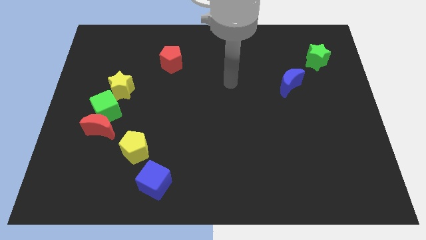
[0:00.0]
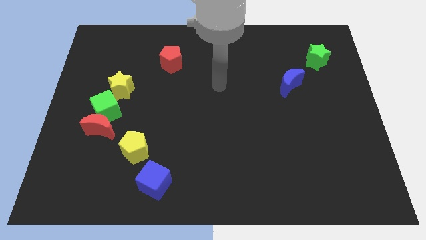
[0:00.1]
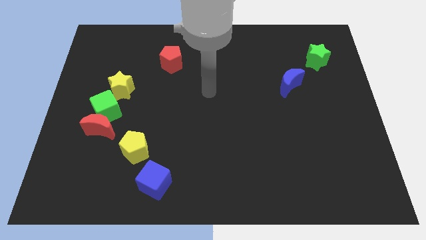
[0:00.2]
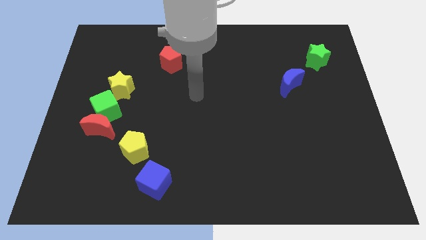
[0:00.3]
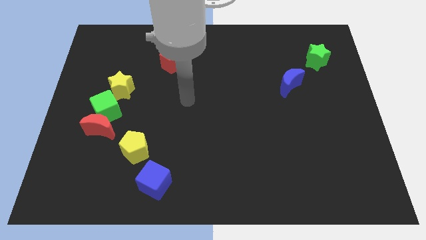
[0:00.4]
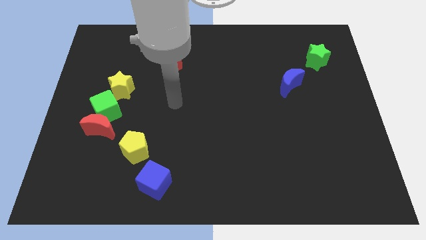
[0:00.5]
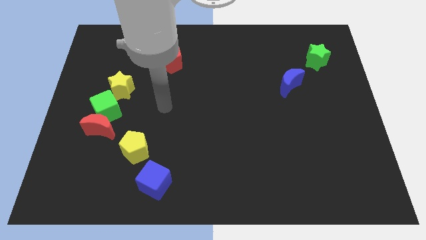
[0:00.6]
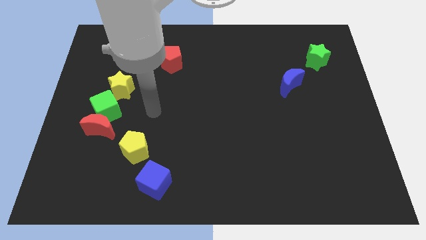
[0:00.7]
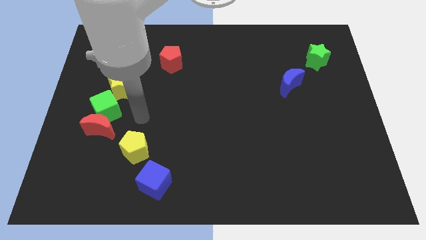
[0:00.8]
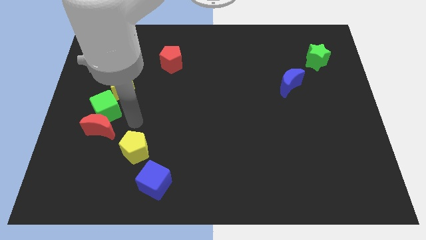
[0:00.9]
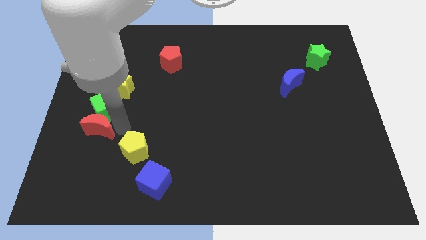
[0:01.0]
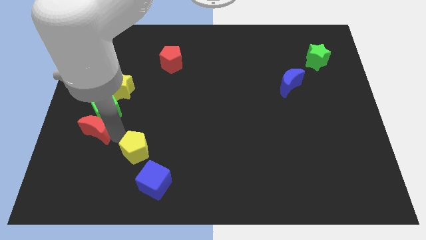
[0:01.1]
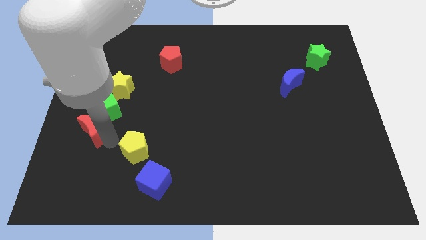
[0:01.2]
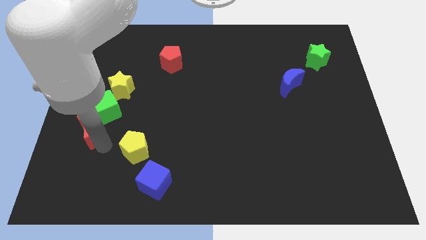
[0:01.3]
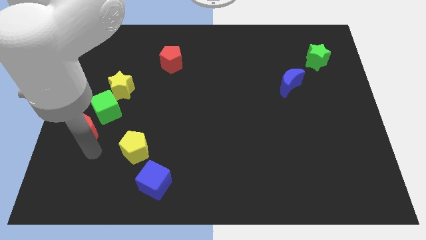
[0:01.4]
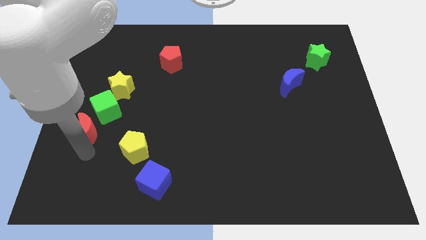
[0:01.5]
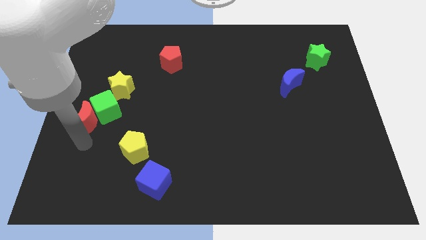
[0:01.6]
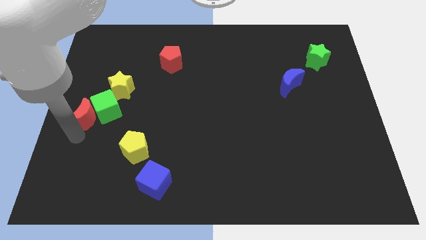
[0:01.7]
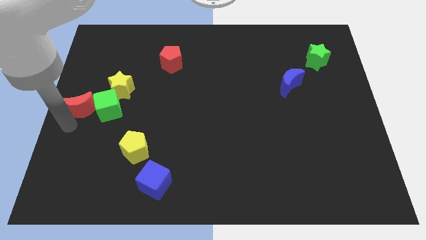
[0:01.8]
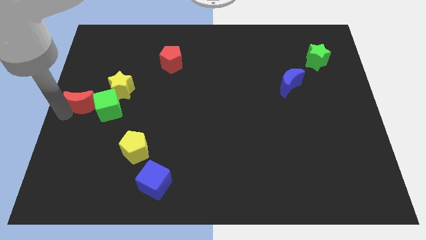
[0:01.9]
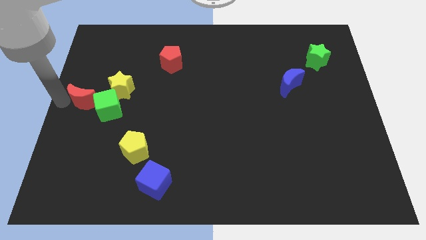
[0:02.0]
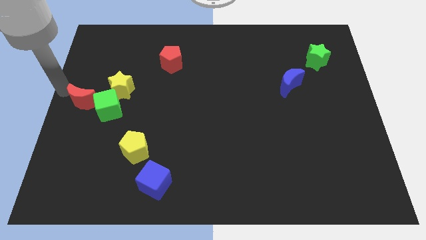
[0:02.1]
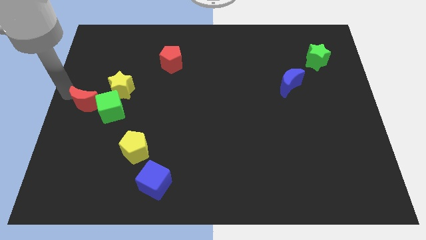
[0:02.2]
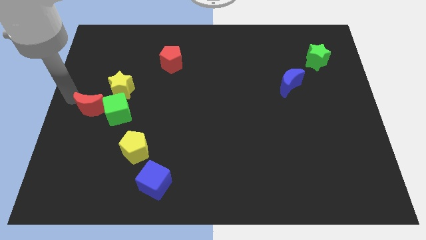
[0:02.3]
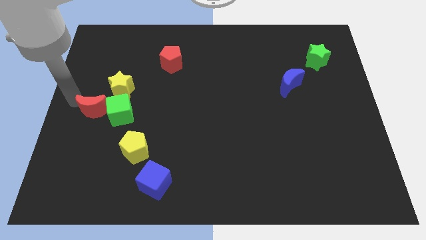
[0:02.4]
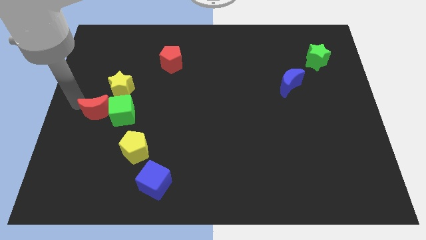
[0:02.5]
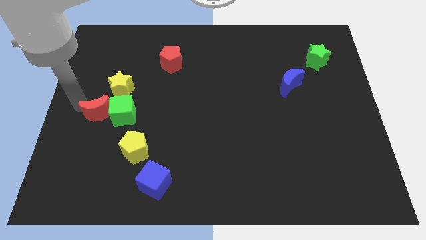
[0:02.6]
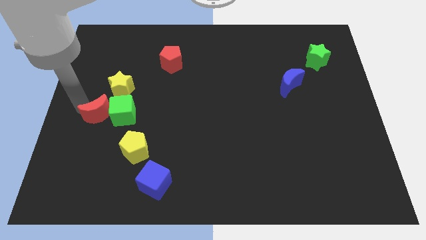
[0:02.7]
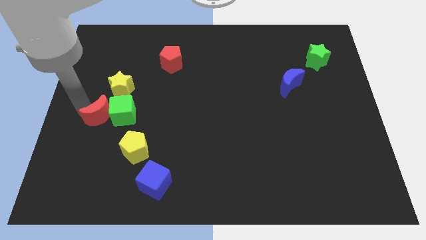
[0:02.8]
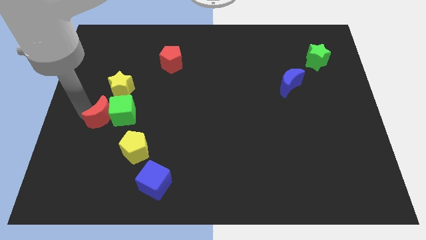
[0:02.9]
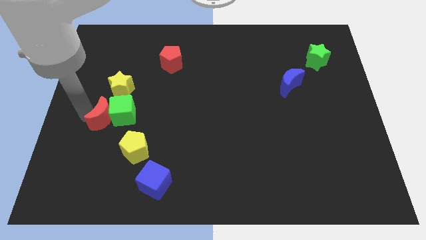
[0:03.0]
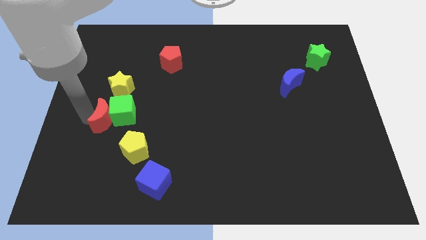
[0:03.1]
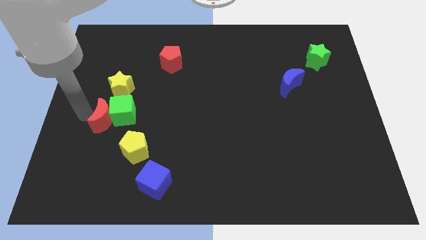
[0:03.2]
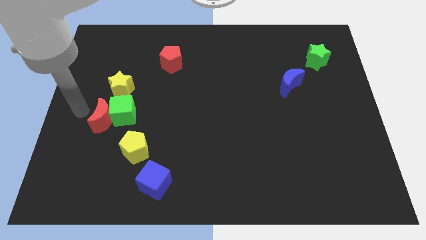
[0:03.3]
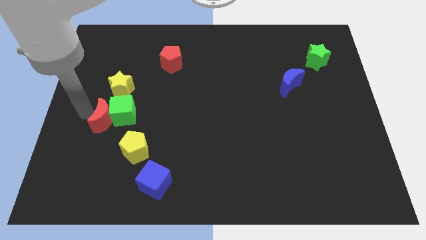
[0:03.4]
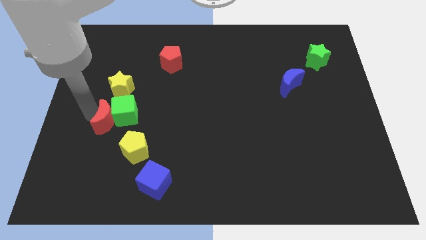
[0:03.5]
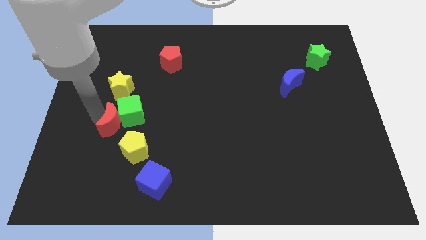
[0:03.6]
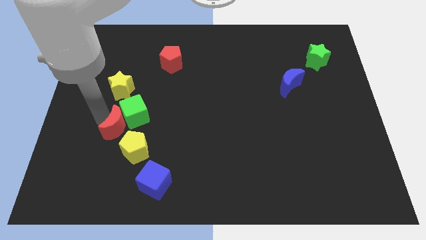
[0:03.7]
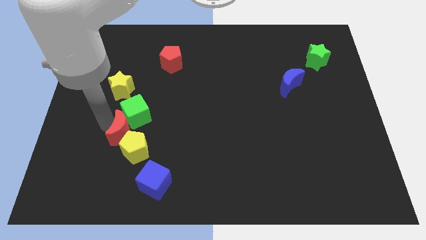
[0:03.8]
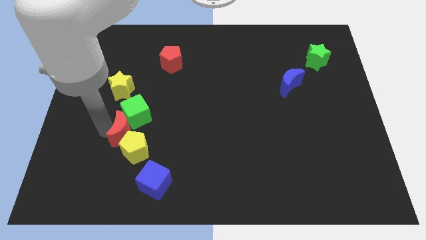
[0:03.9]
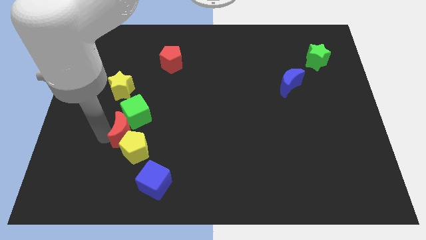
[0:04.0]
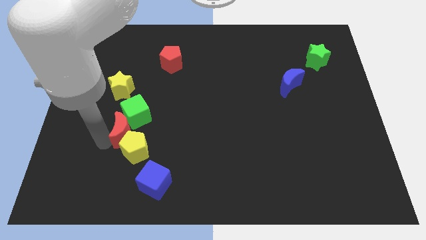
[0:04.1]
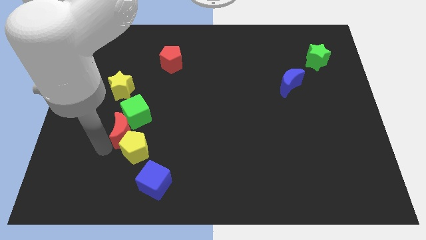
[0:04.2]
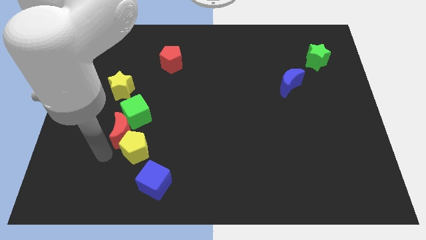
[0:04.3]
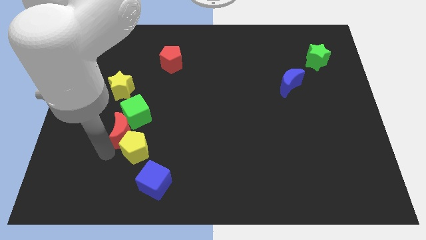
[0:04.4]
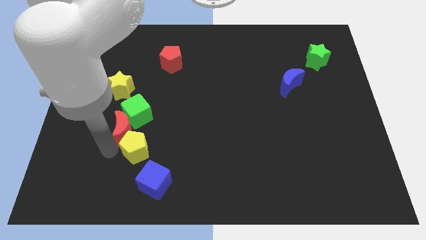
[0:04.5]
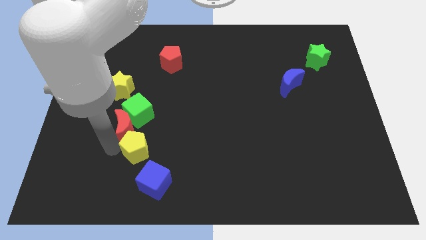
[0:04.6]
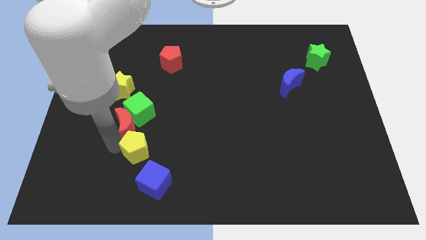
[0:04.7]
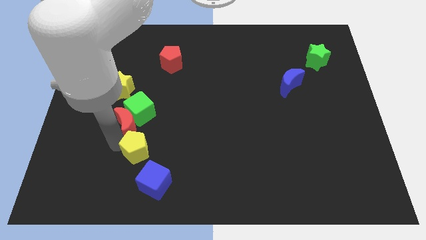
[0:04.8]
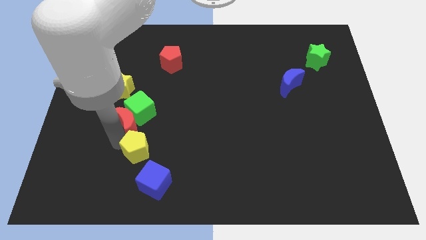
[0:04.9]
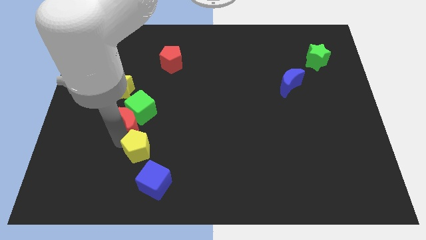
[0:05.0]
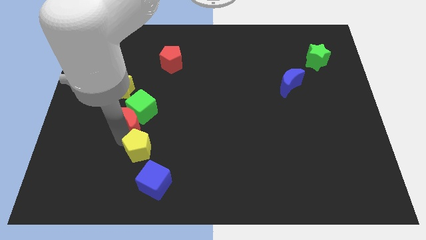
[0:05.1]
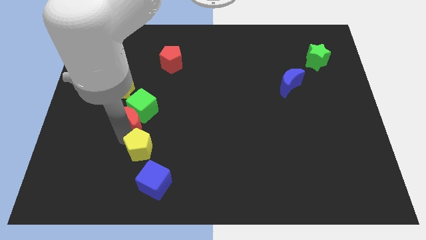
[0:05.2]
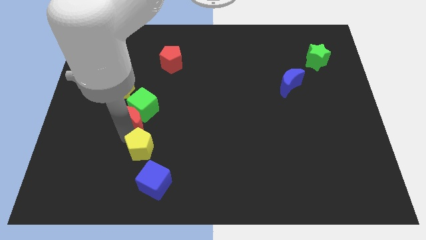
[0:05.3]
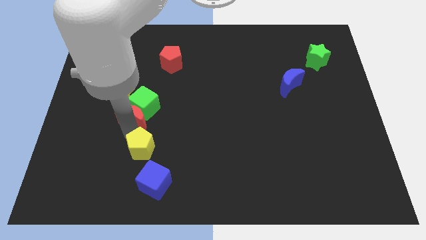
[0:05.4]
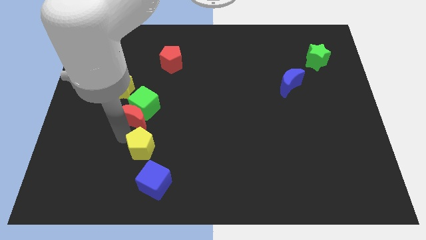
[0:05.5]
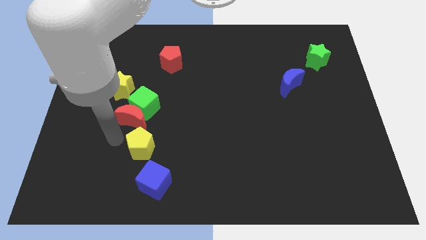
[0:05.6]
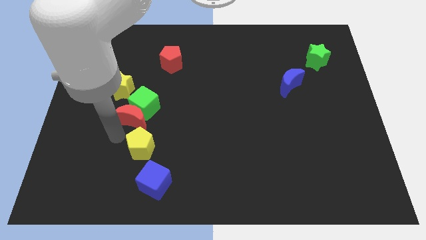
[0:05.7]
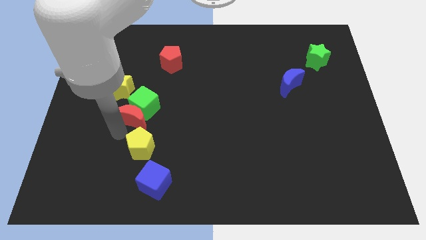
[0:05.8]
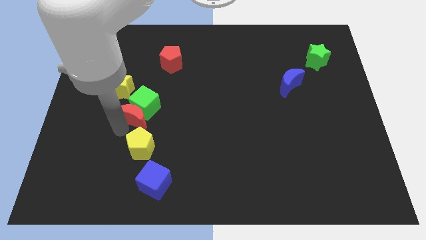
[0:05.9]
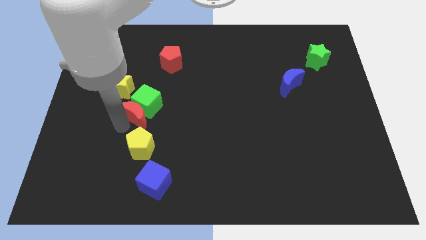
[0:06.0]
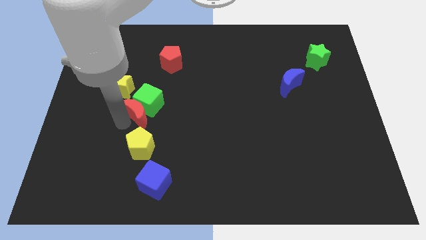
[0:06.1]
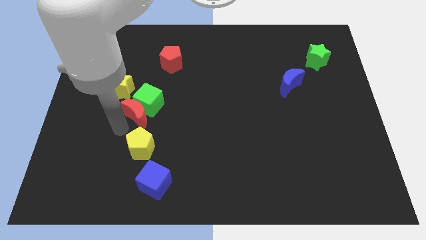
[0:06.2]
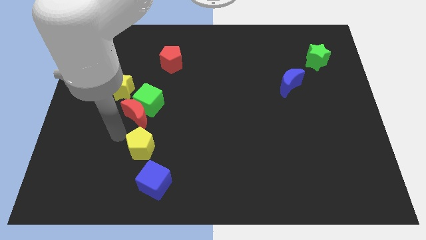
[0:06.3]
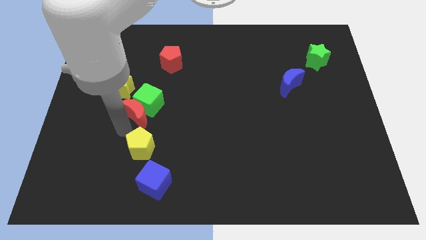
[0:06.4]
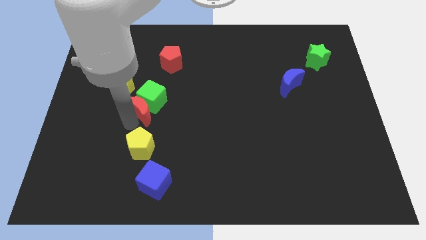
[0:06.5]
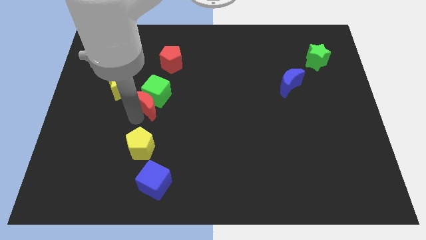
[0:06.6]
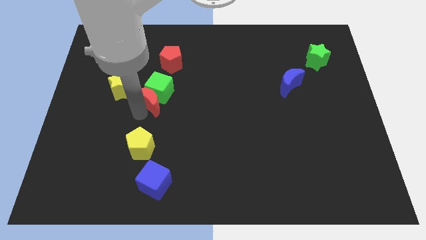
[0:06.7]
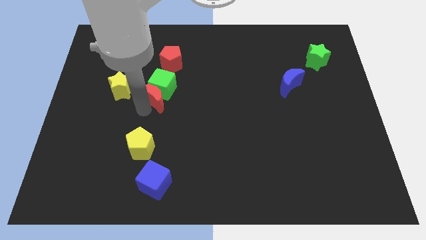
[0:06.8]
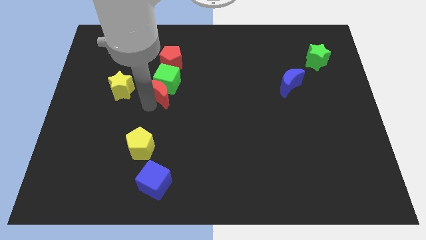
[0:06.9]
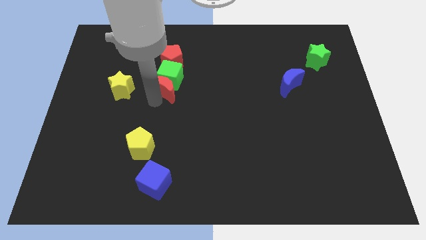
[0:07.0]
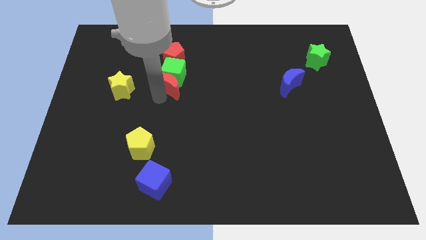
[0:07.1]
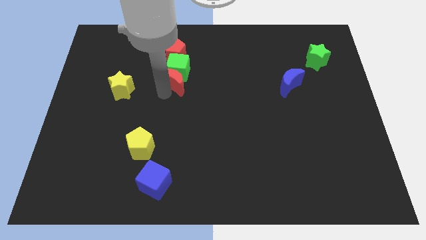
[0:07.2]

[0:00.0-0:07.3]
push the red moon up and to the right

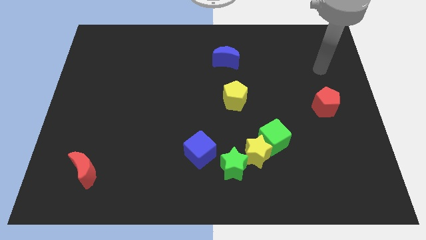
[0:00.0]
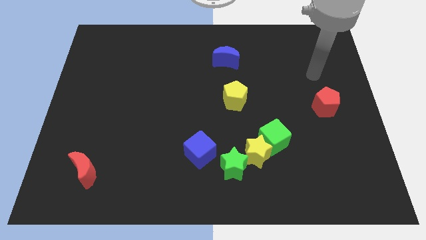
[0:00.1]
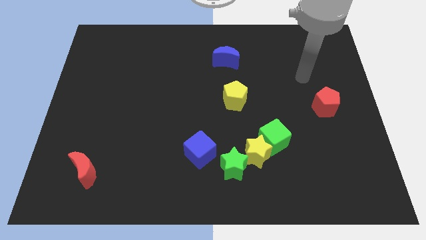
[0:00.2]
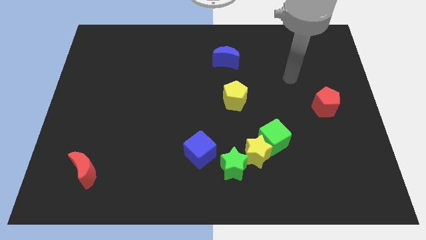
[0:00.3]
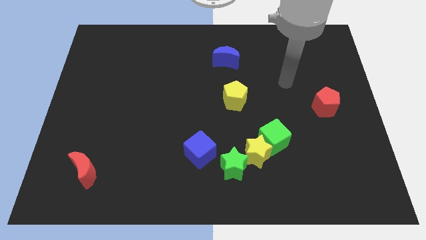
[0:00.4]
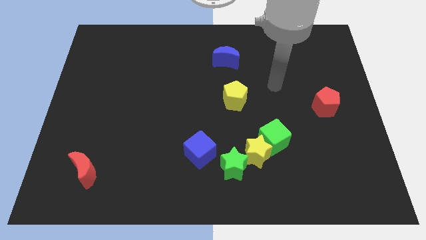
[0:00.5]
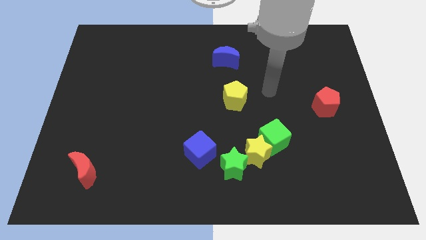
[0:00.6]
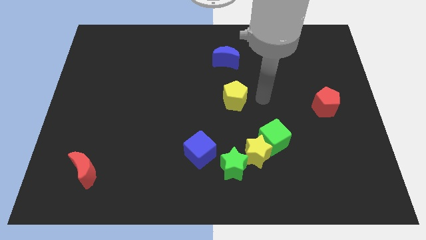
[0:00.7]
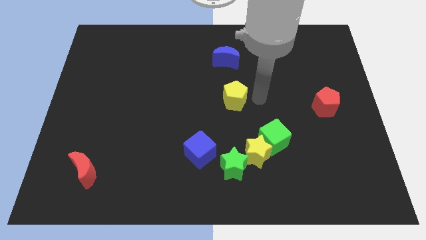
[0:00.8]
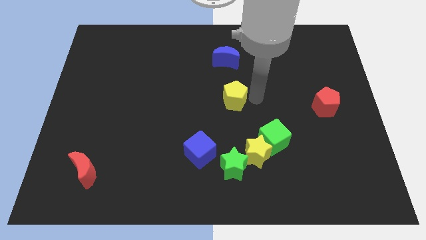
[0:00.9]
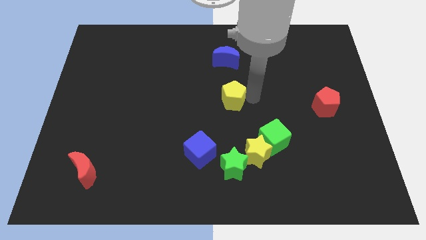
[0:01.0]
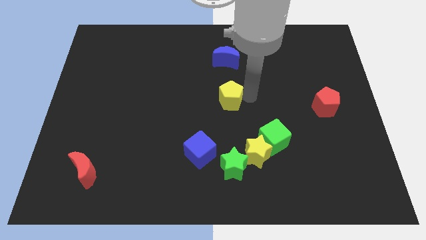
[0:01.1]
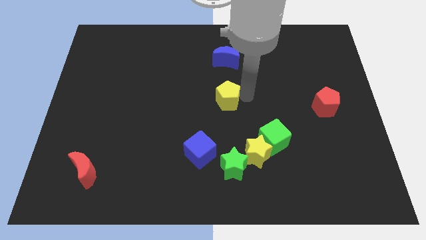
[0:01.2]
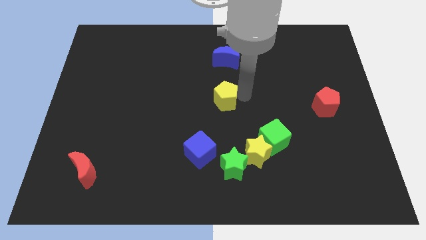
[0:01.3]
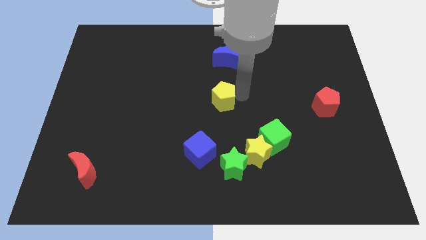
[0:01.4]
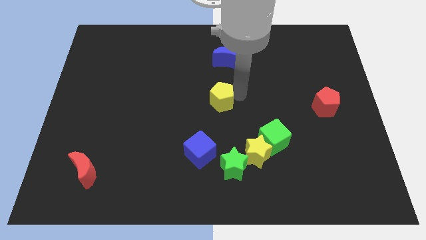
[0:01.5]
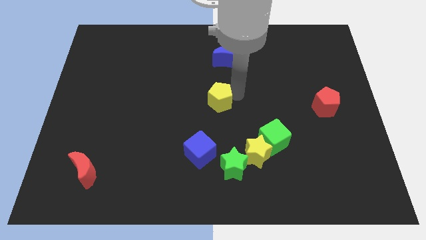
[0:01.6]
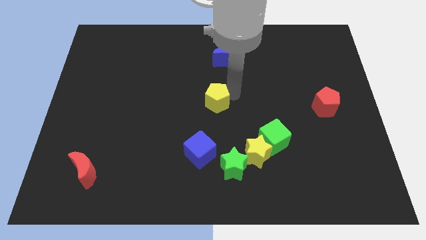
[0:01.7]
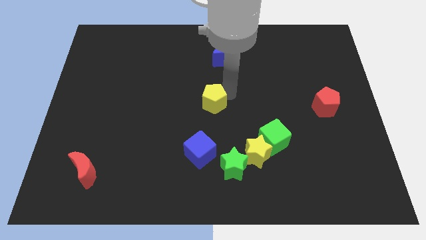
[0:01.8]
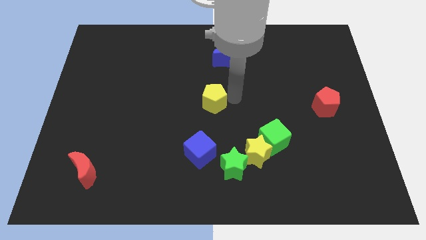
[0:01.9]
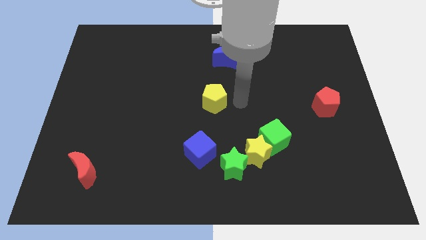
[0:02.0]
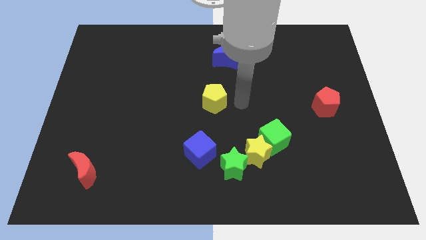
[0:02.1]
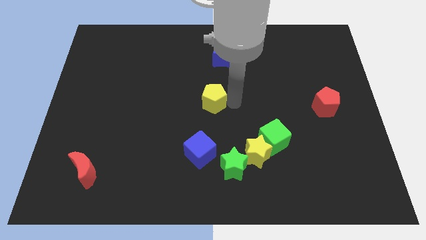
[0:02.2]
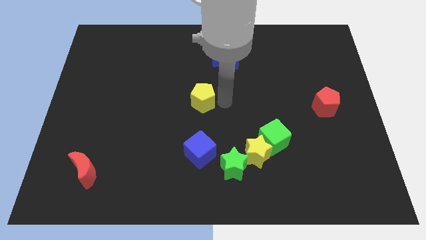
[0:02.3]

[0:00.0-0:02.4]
move the yellow pentagon left a little bit
